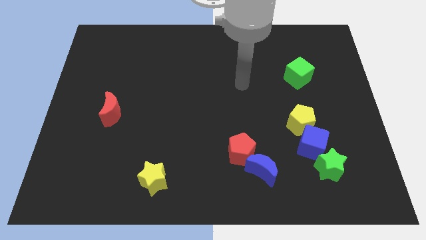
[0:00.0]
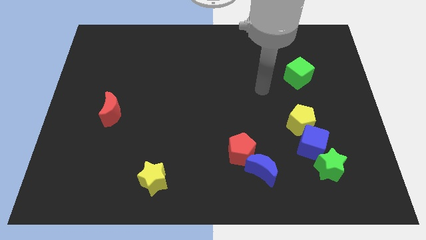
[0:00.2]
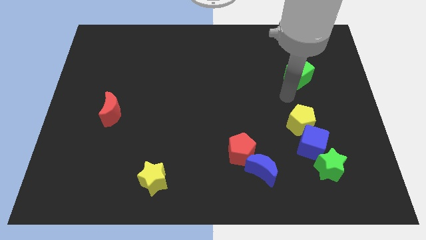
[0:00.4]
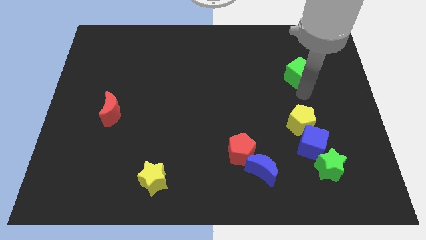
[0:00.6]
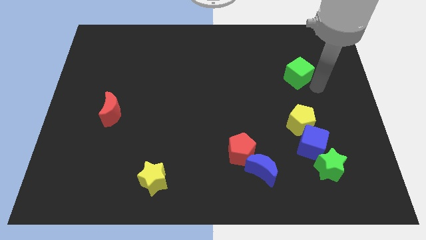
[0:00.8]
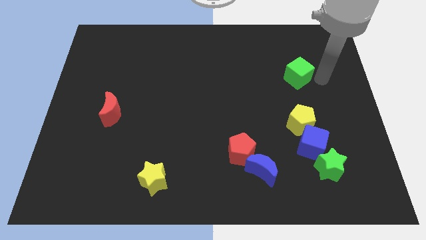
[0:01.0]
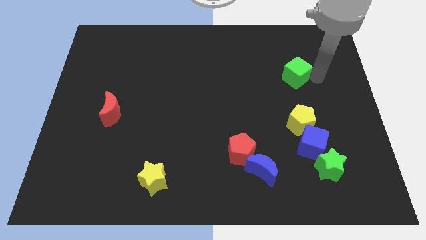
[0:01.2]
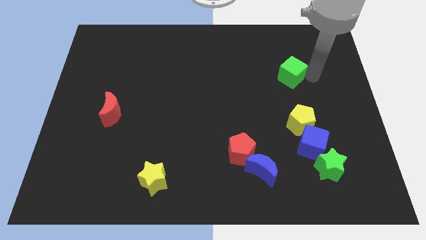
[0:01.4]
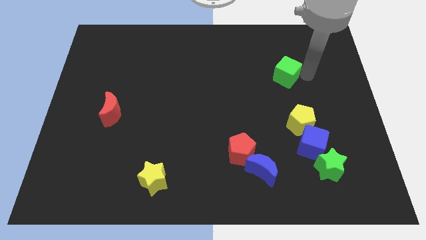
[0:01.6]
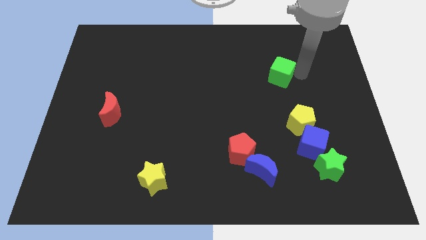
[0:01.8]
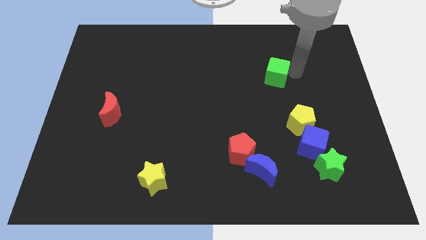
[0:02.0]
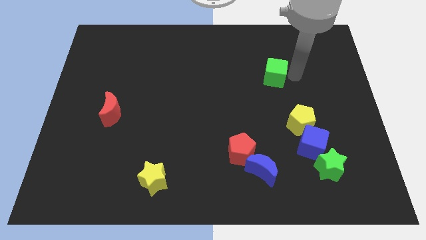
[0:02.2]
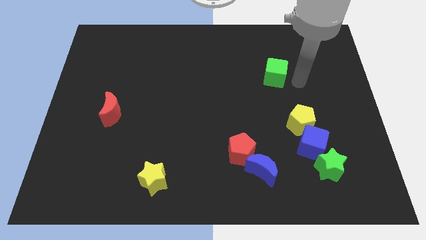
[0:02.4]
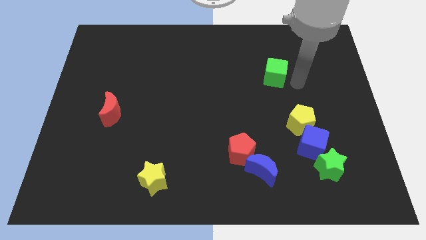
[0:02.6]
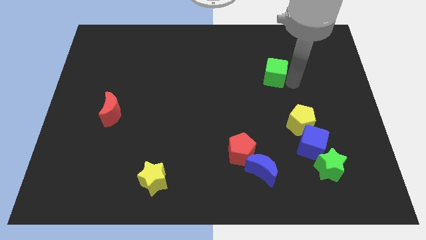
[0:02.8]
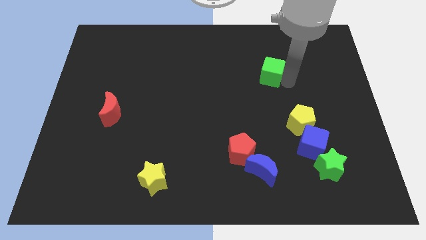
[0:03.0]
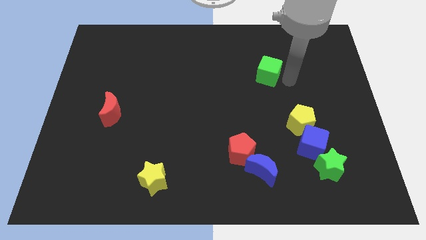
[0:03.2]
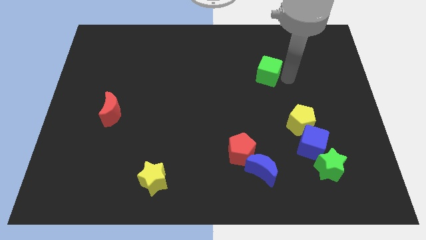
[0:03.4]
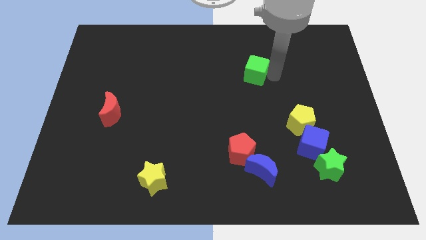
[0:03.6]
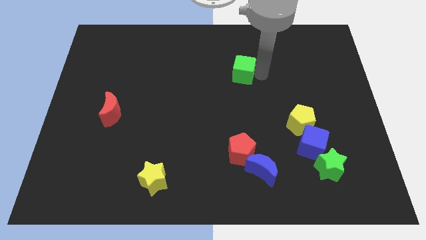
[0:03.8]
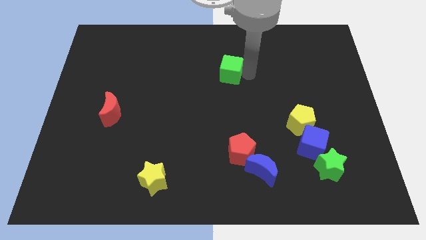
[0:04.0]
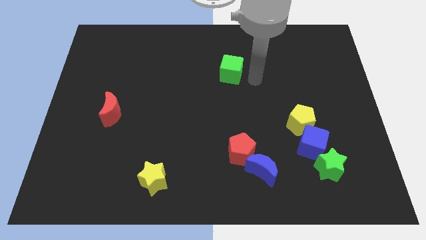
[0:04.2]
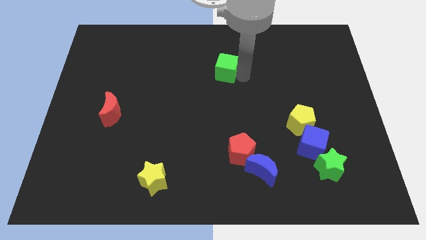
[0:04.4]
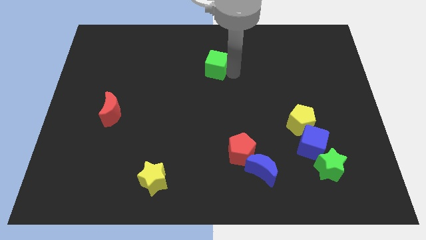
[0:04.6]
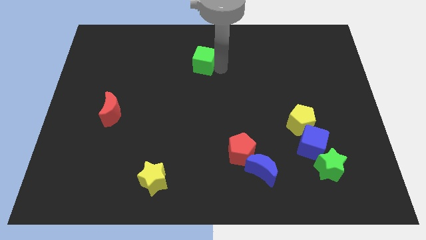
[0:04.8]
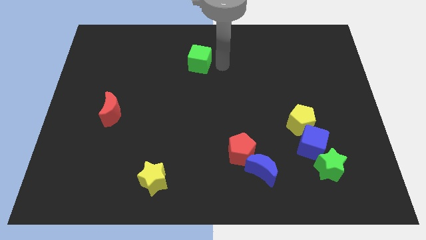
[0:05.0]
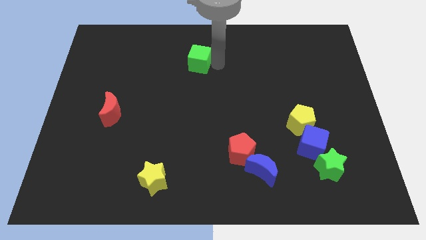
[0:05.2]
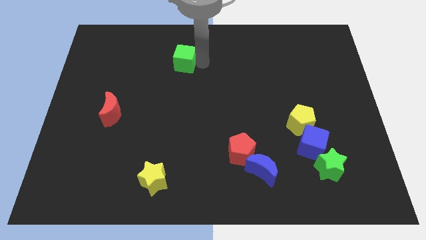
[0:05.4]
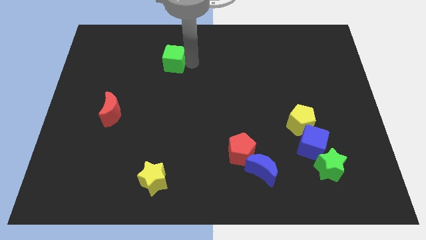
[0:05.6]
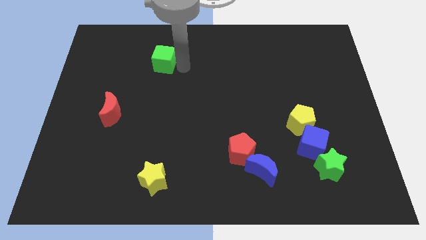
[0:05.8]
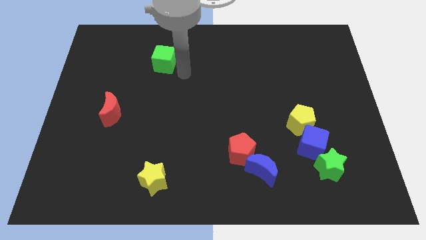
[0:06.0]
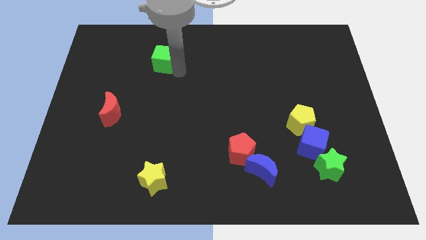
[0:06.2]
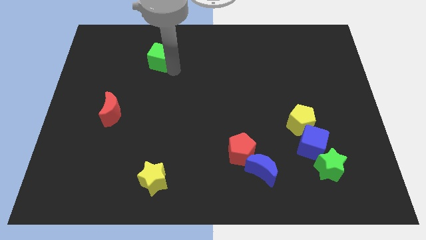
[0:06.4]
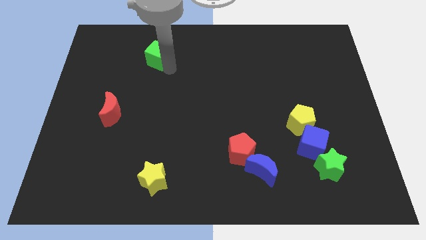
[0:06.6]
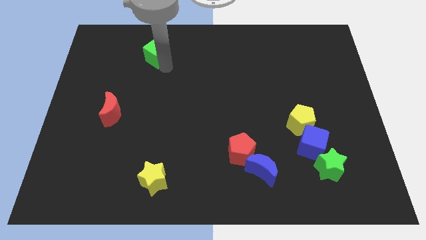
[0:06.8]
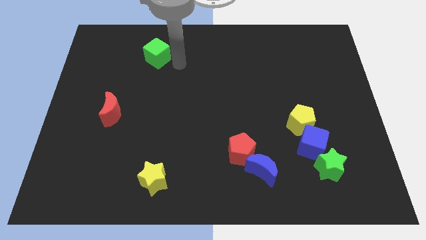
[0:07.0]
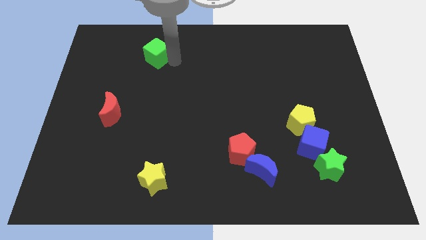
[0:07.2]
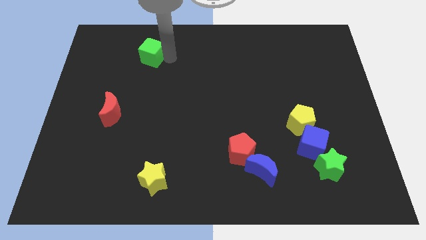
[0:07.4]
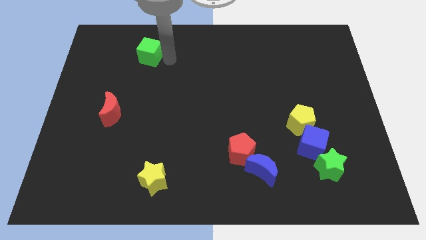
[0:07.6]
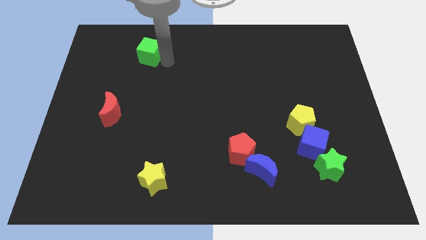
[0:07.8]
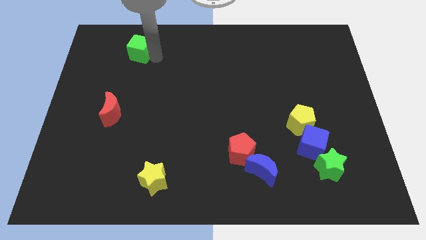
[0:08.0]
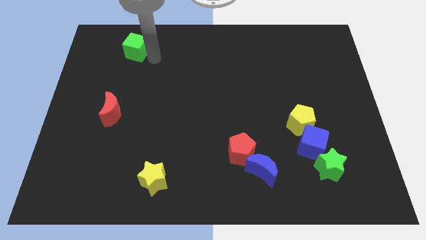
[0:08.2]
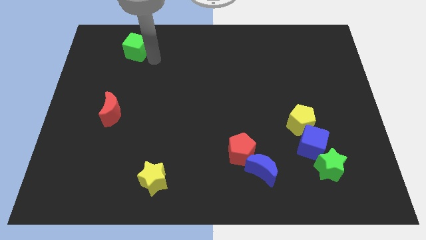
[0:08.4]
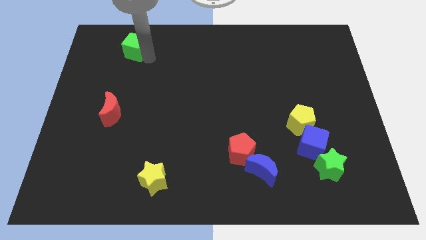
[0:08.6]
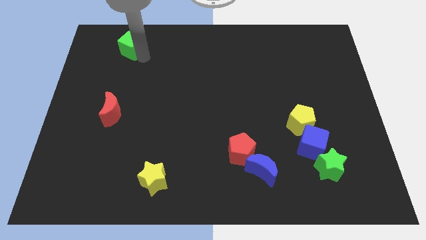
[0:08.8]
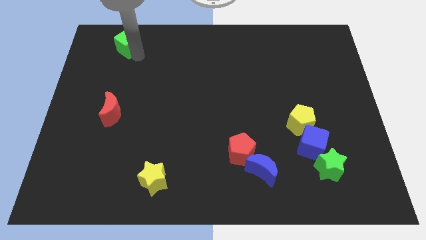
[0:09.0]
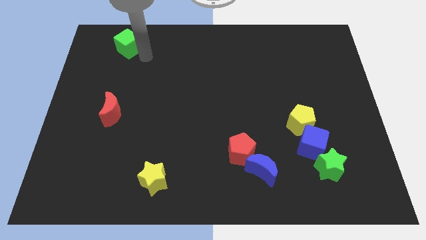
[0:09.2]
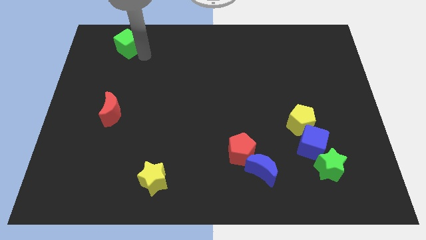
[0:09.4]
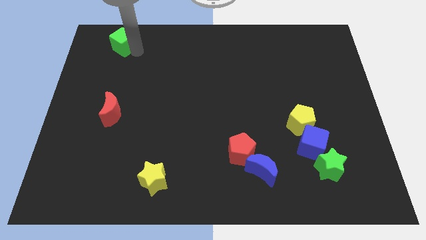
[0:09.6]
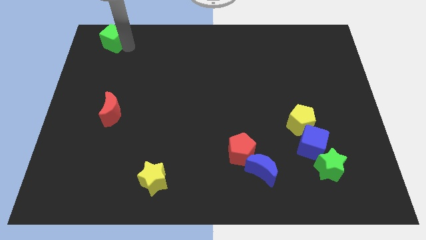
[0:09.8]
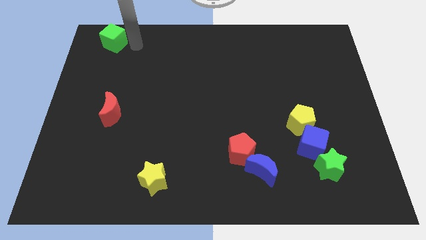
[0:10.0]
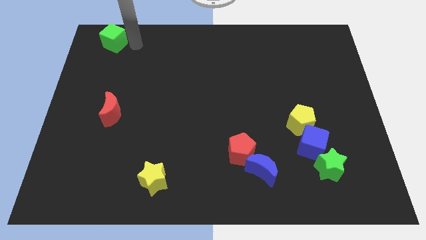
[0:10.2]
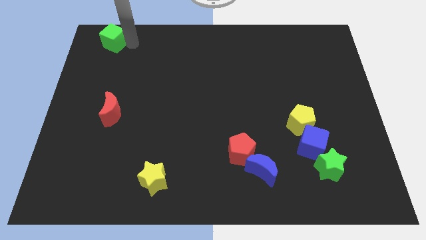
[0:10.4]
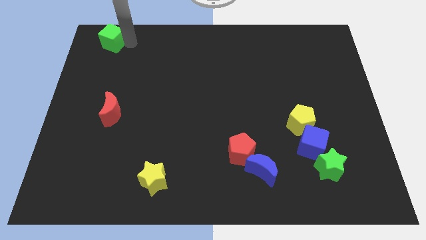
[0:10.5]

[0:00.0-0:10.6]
push the green cube to the upper left corner
